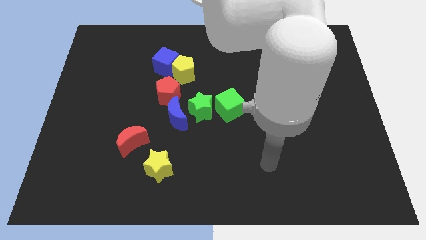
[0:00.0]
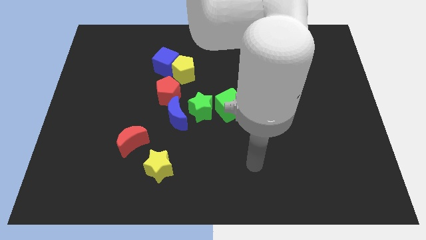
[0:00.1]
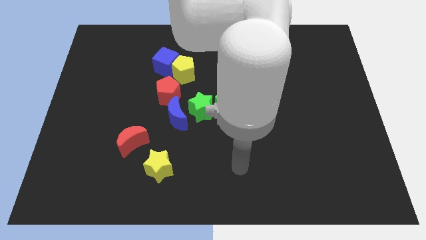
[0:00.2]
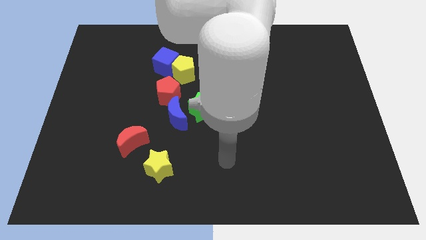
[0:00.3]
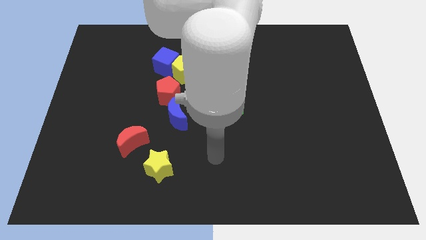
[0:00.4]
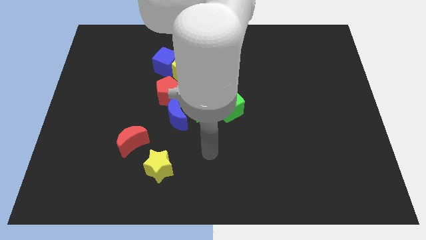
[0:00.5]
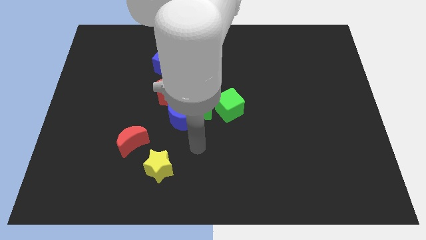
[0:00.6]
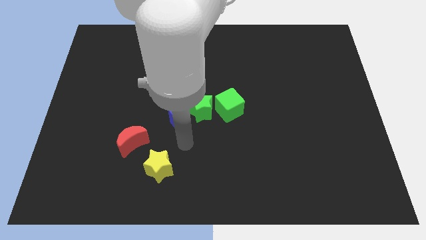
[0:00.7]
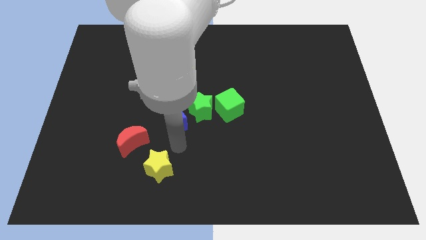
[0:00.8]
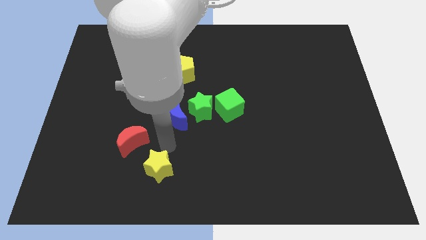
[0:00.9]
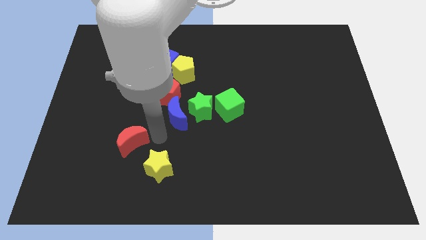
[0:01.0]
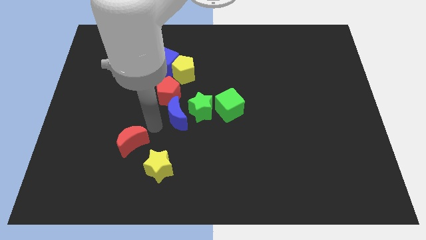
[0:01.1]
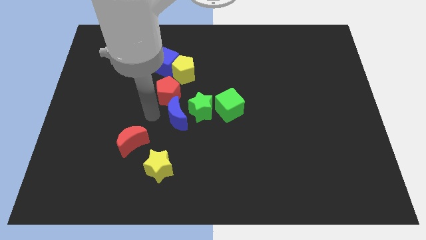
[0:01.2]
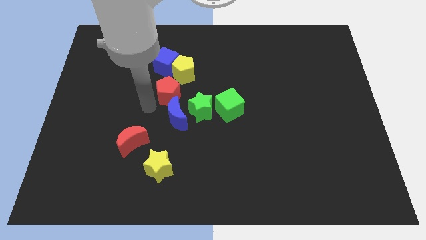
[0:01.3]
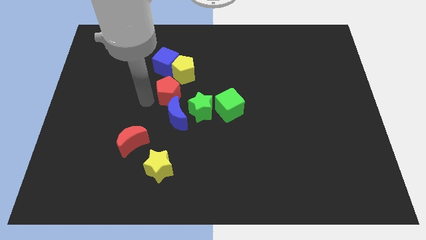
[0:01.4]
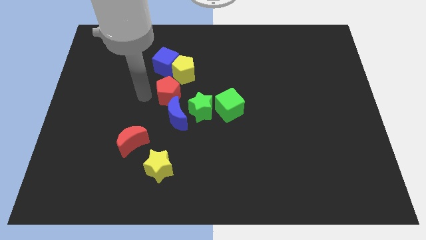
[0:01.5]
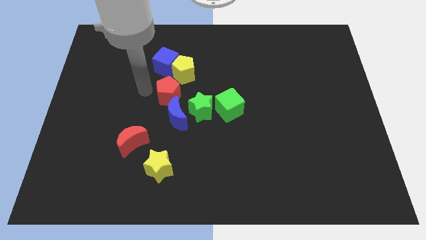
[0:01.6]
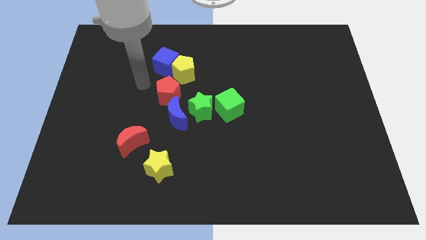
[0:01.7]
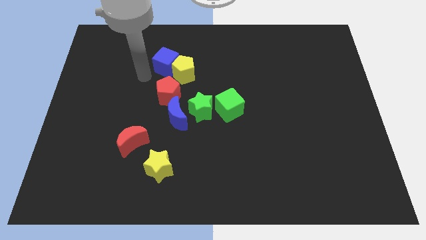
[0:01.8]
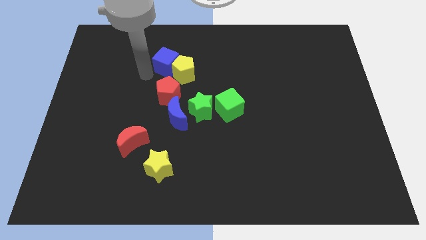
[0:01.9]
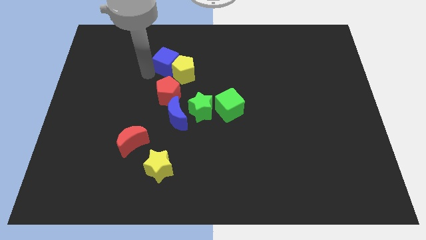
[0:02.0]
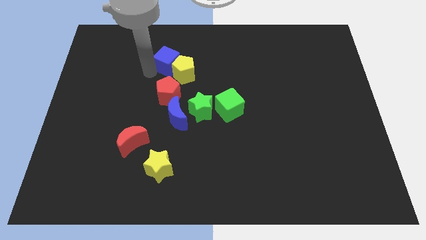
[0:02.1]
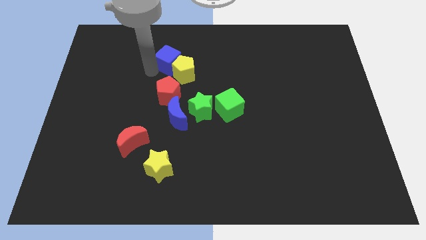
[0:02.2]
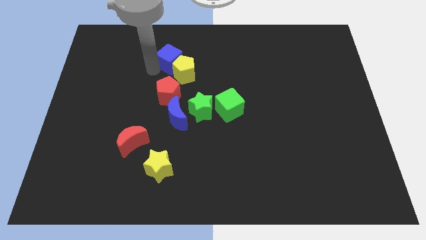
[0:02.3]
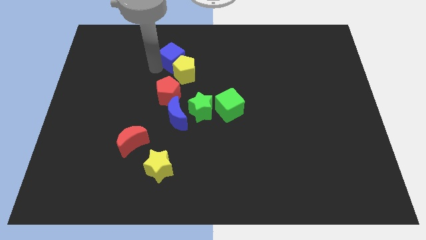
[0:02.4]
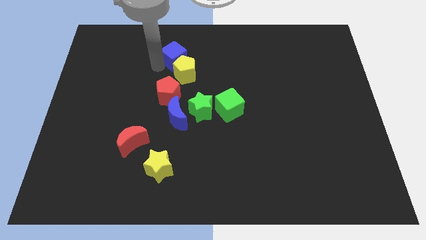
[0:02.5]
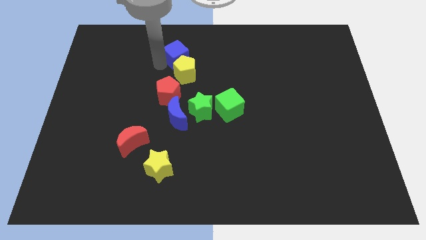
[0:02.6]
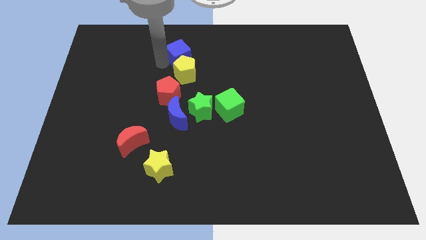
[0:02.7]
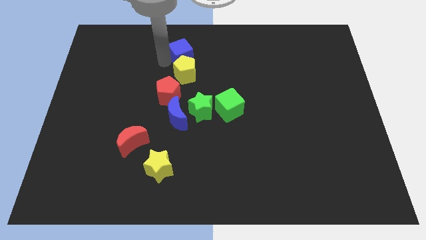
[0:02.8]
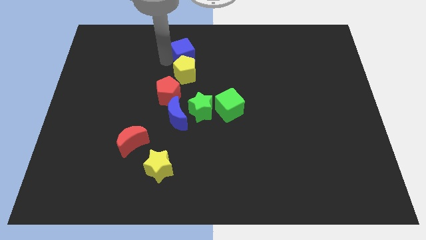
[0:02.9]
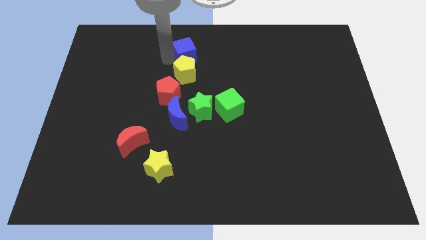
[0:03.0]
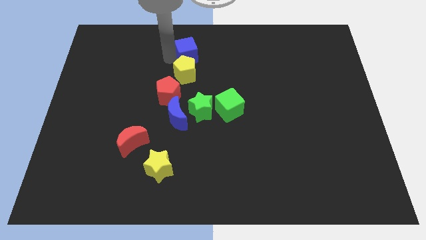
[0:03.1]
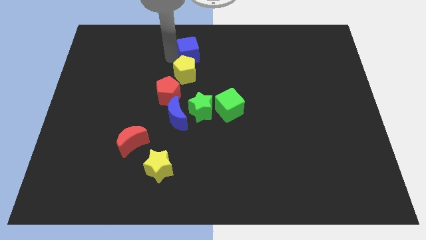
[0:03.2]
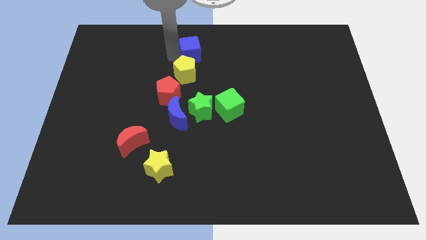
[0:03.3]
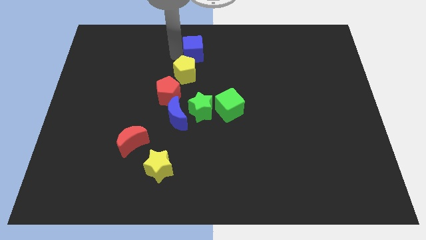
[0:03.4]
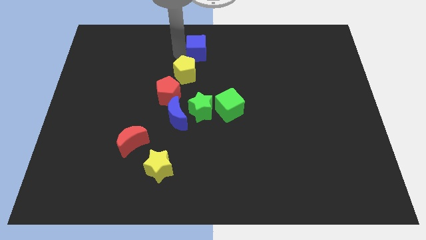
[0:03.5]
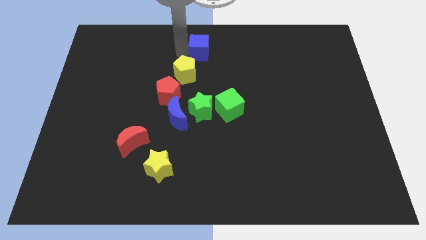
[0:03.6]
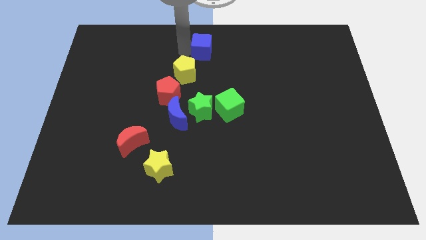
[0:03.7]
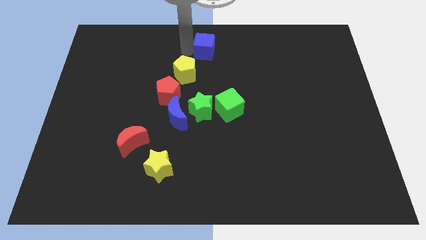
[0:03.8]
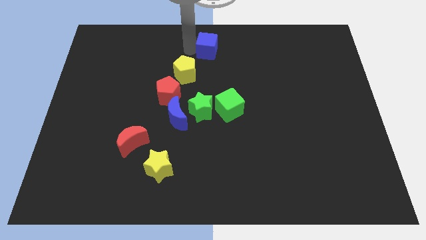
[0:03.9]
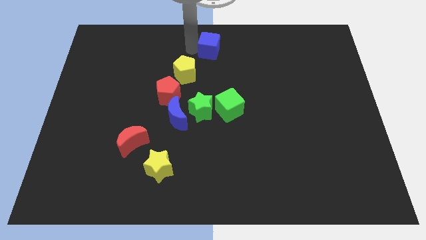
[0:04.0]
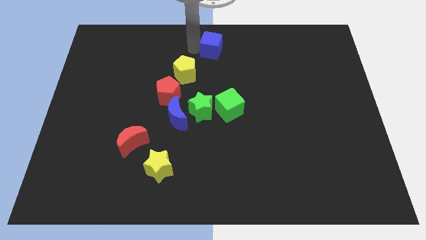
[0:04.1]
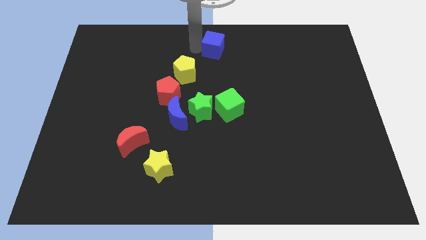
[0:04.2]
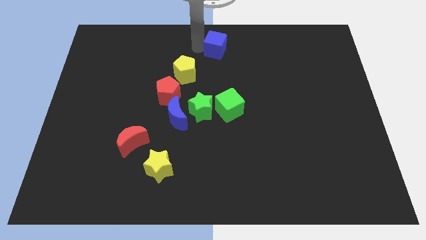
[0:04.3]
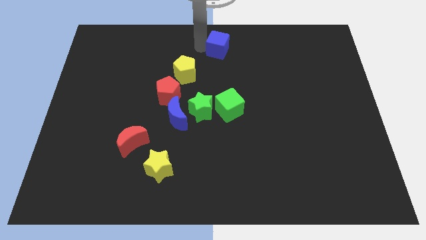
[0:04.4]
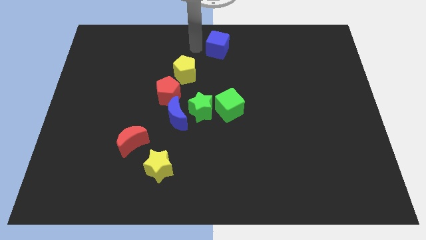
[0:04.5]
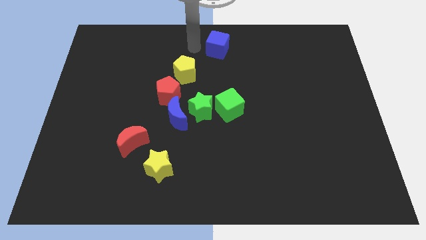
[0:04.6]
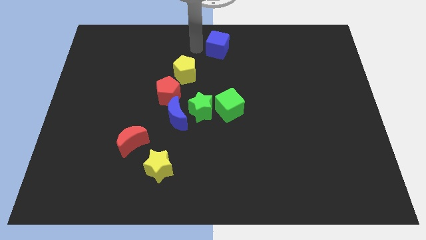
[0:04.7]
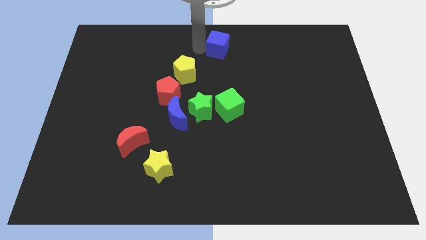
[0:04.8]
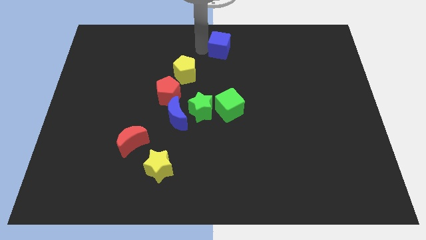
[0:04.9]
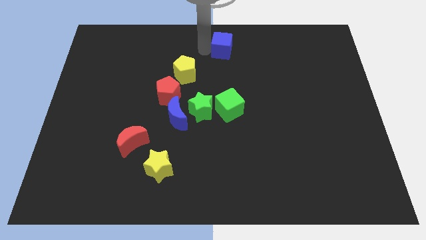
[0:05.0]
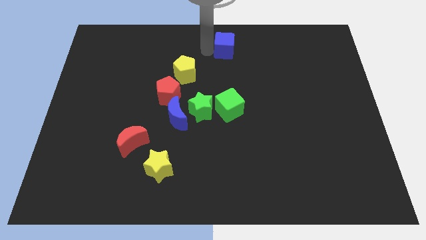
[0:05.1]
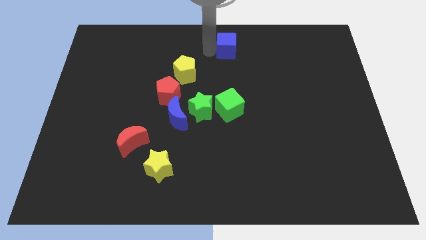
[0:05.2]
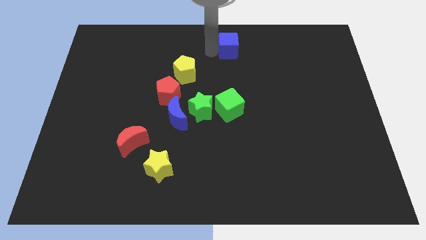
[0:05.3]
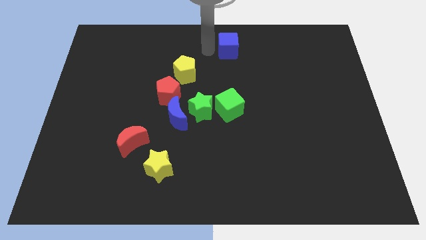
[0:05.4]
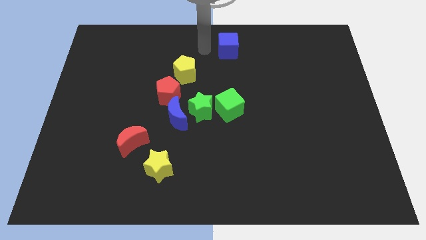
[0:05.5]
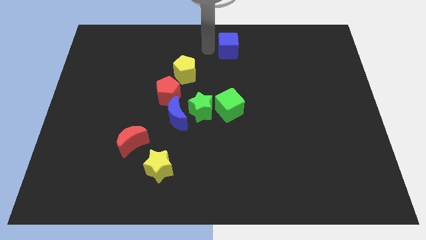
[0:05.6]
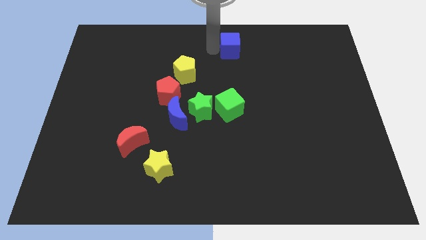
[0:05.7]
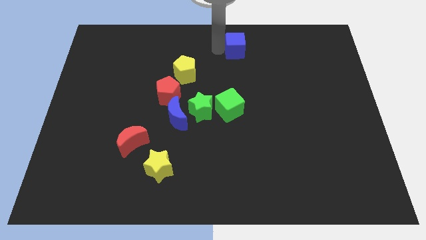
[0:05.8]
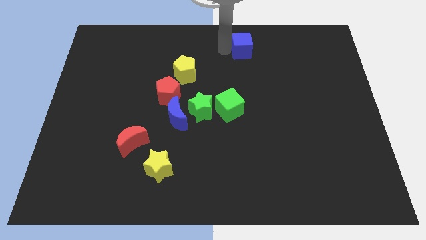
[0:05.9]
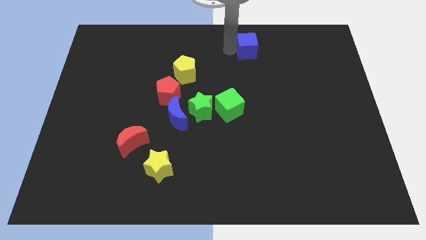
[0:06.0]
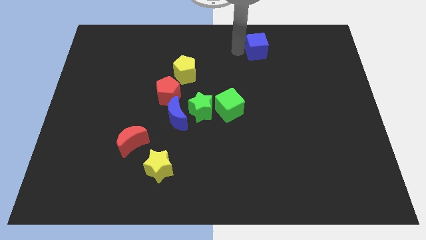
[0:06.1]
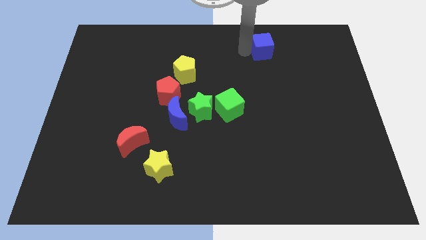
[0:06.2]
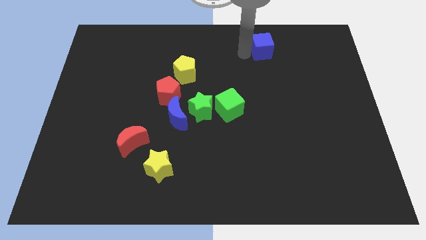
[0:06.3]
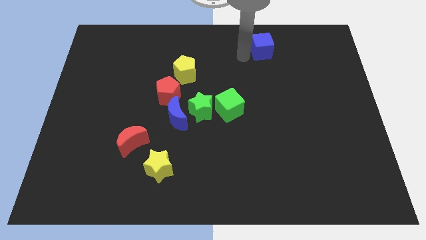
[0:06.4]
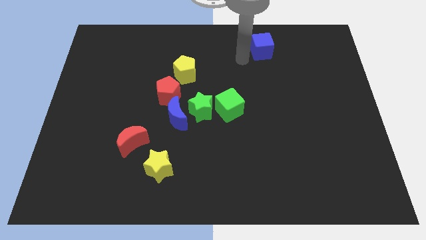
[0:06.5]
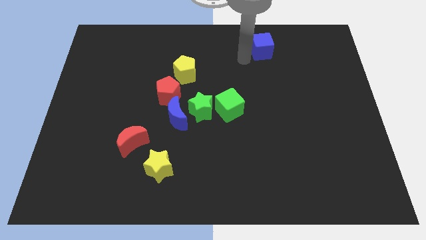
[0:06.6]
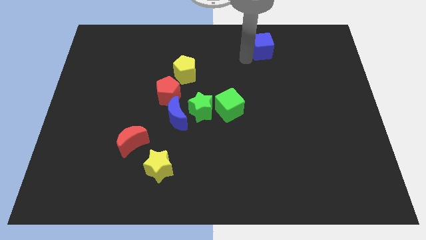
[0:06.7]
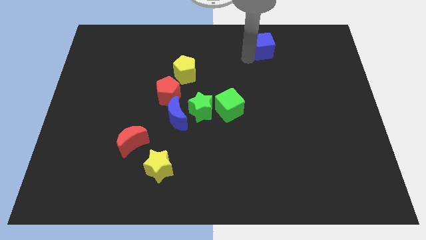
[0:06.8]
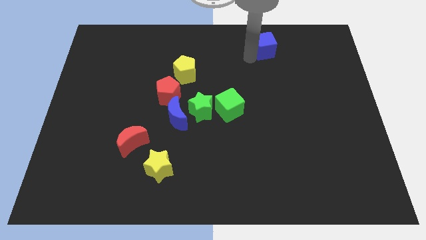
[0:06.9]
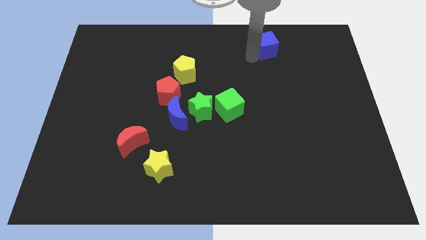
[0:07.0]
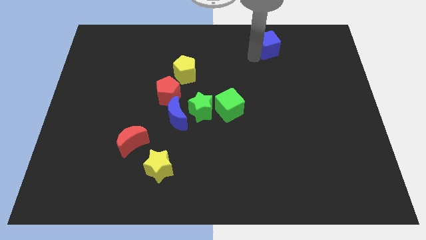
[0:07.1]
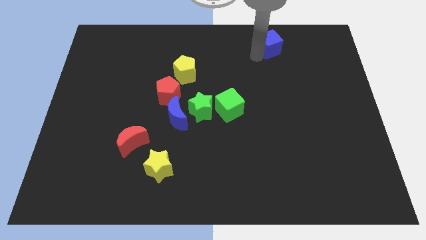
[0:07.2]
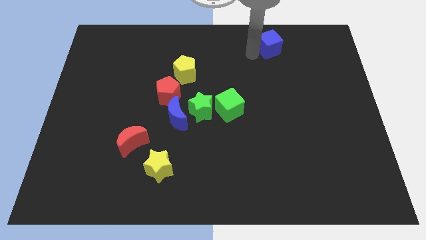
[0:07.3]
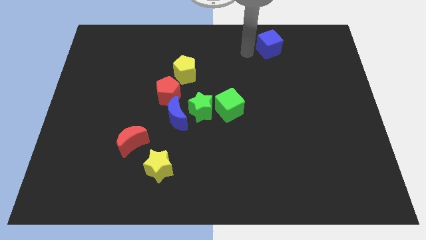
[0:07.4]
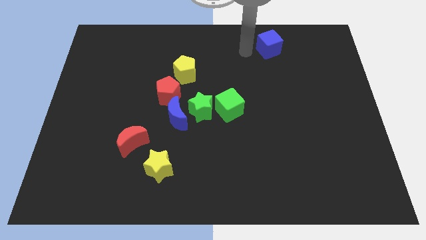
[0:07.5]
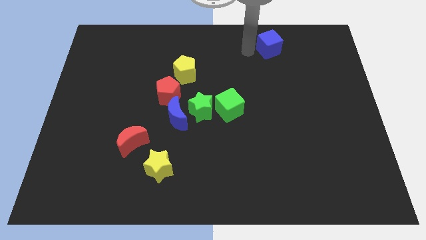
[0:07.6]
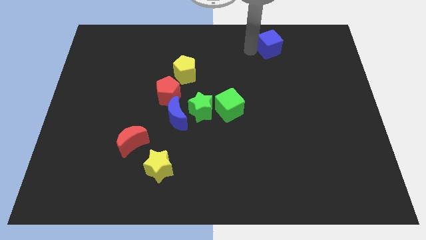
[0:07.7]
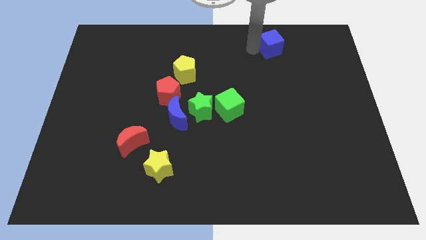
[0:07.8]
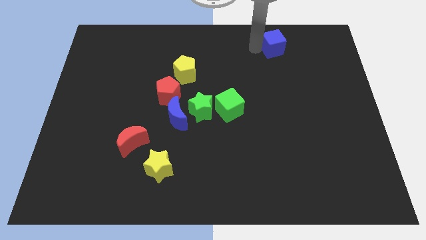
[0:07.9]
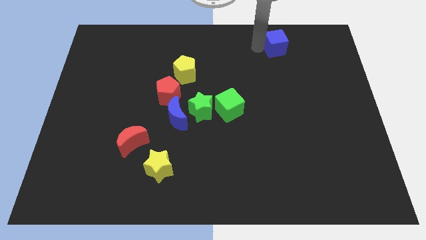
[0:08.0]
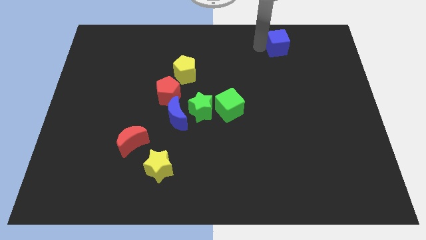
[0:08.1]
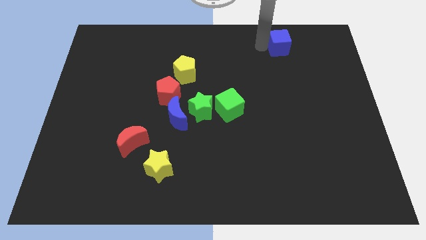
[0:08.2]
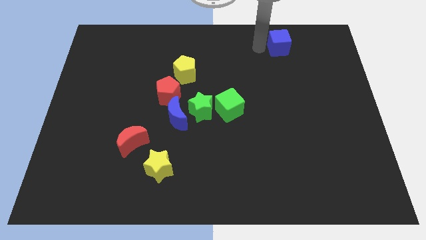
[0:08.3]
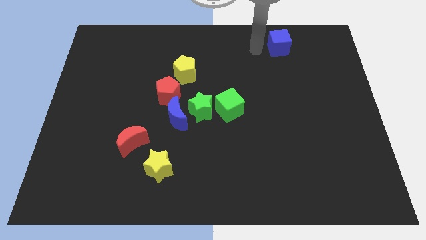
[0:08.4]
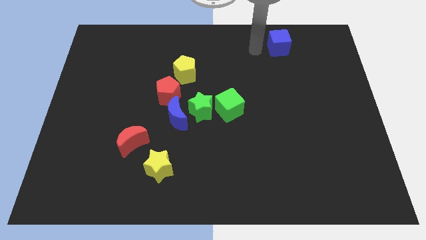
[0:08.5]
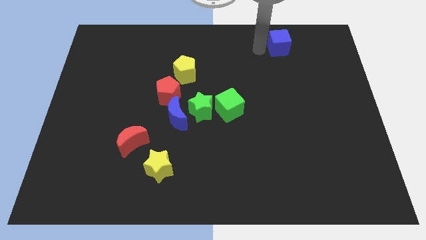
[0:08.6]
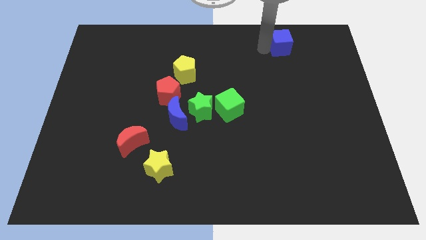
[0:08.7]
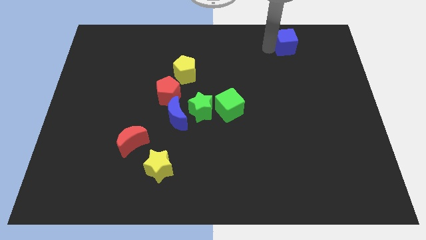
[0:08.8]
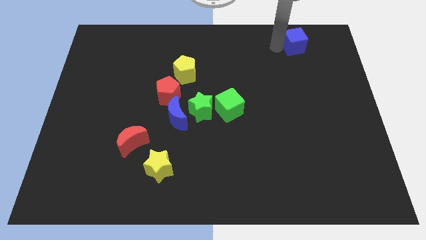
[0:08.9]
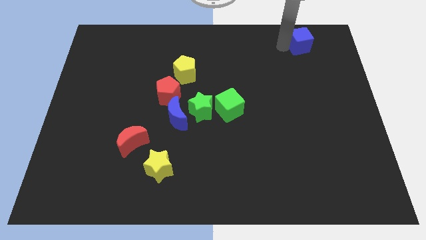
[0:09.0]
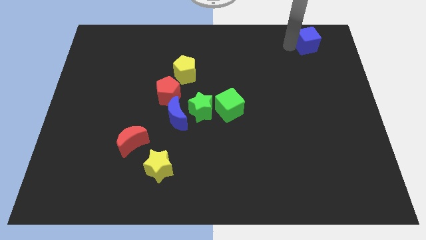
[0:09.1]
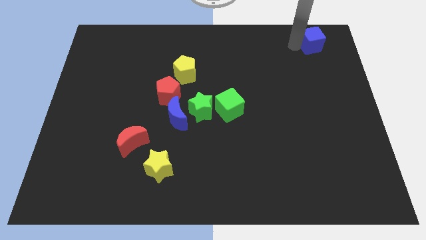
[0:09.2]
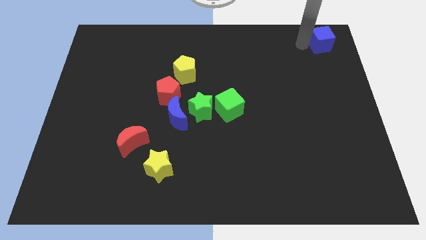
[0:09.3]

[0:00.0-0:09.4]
put the blue cube to the top right
